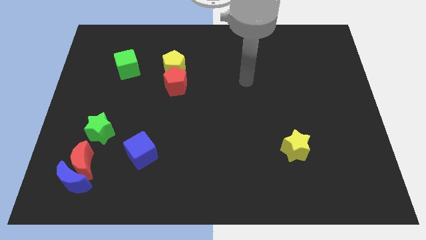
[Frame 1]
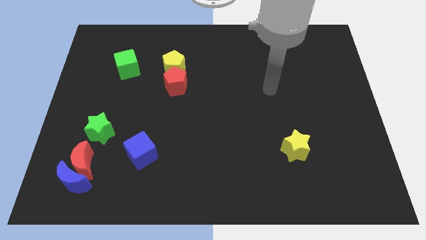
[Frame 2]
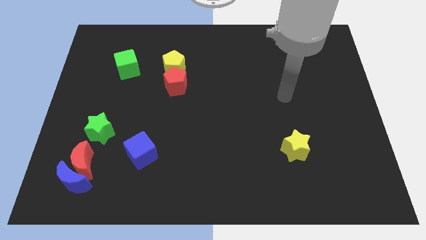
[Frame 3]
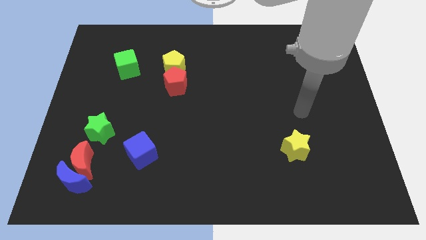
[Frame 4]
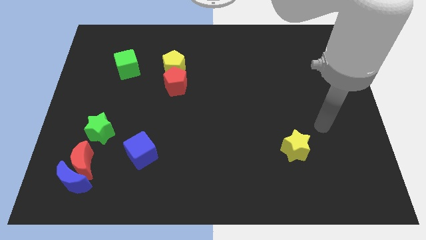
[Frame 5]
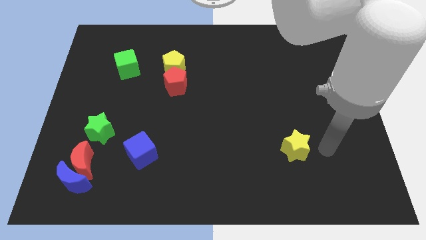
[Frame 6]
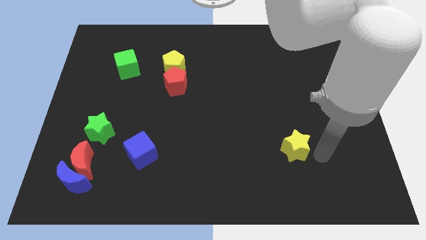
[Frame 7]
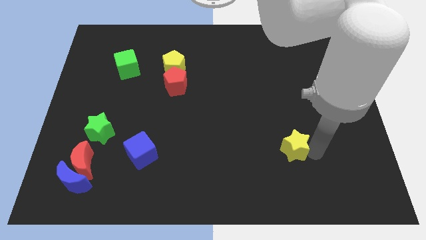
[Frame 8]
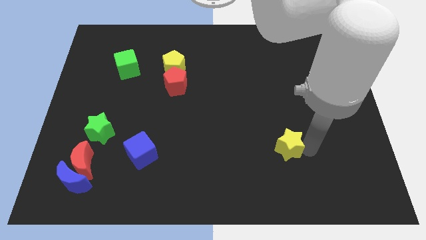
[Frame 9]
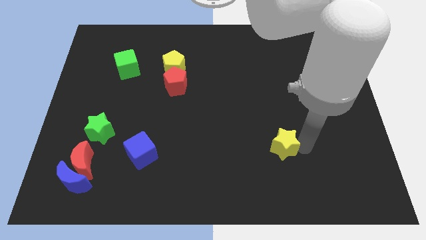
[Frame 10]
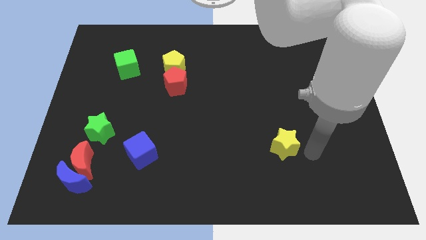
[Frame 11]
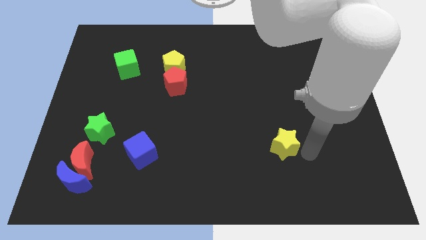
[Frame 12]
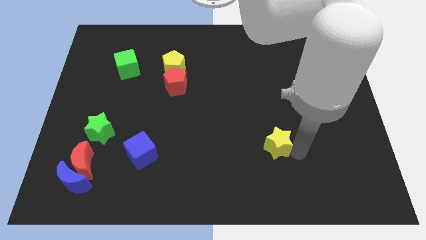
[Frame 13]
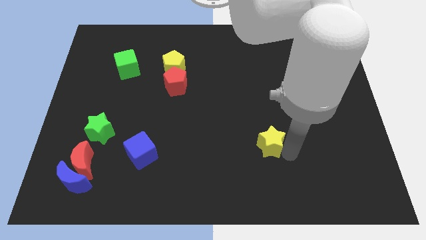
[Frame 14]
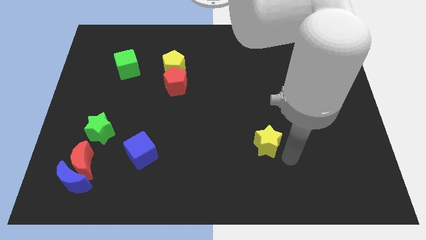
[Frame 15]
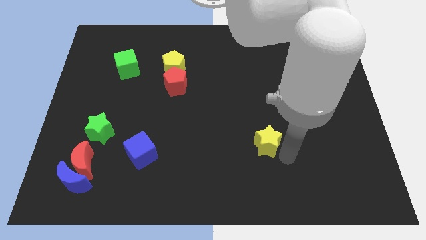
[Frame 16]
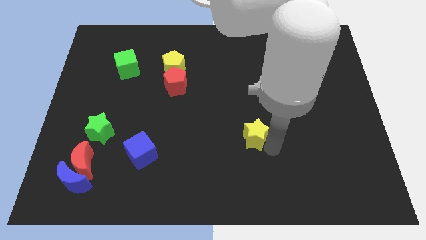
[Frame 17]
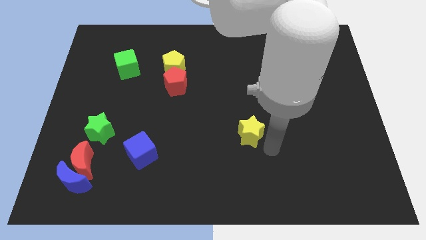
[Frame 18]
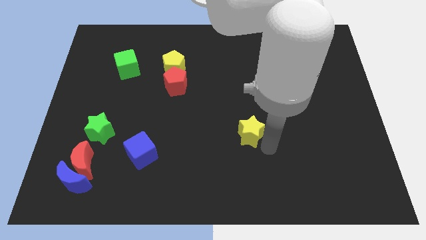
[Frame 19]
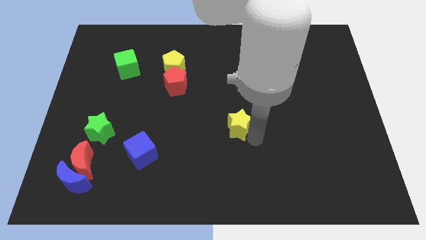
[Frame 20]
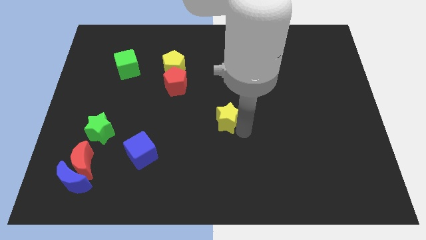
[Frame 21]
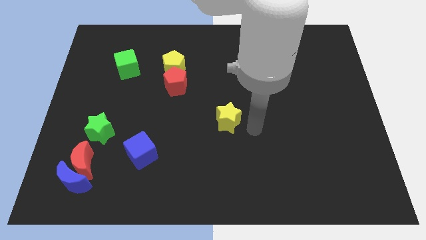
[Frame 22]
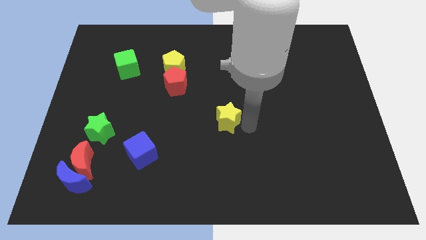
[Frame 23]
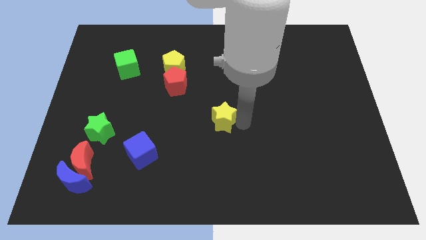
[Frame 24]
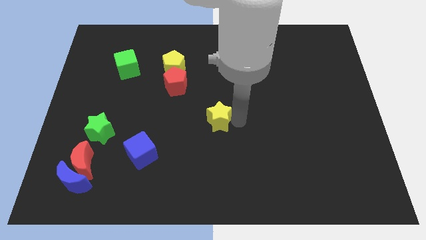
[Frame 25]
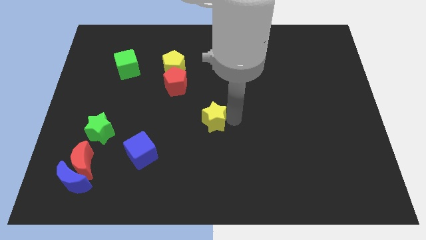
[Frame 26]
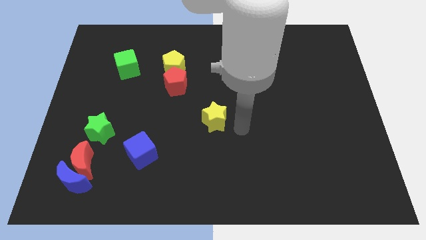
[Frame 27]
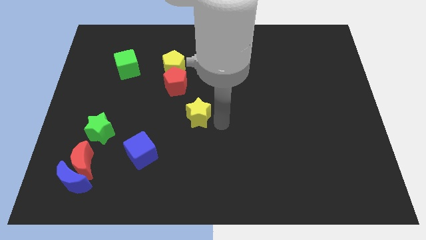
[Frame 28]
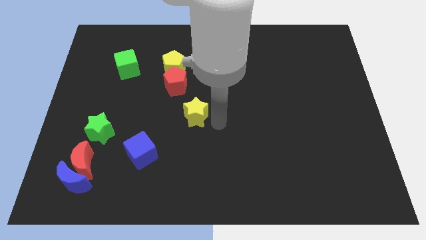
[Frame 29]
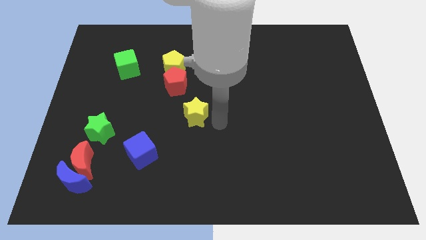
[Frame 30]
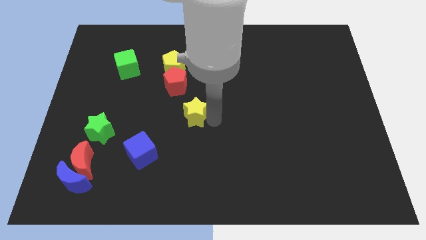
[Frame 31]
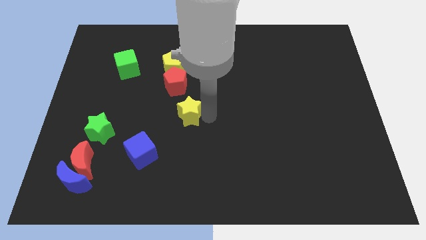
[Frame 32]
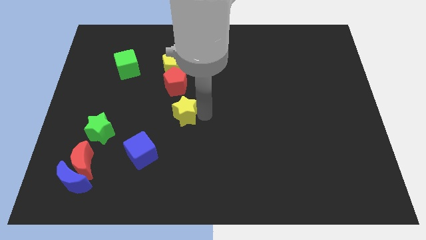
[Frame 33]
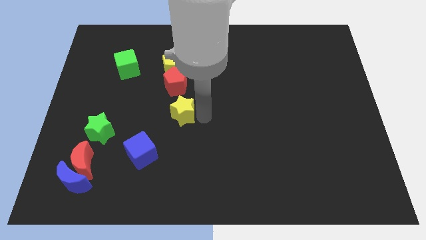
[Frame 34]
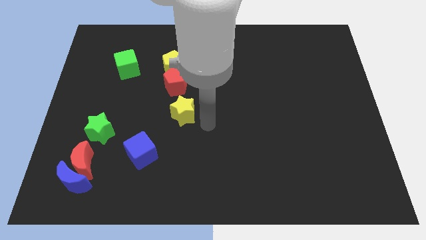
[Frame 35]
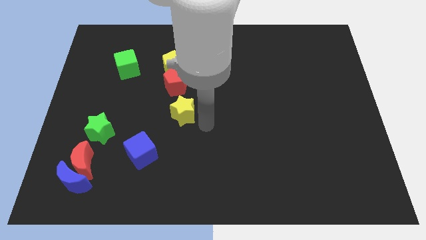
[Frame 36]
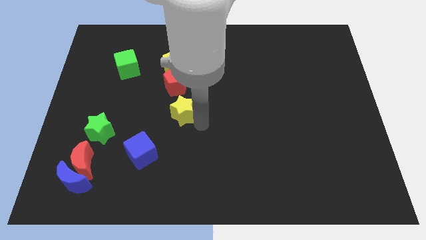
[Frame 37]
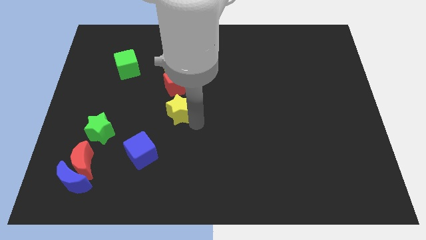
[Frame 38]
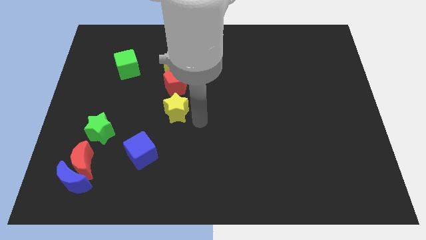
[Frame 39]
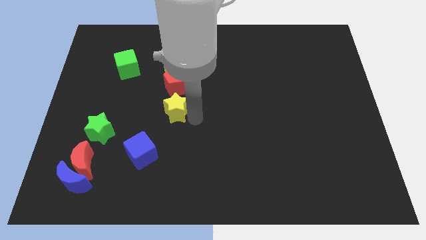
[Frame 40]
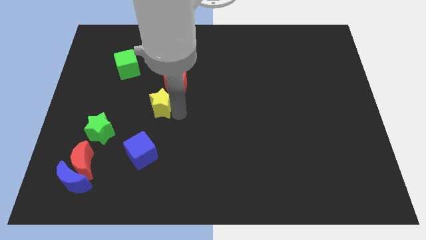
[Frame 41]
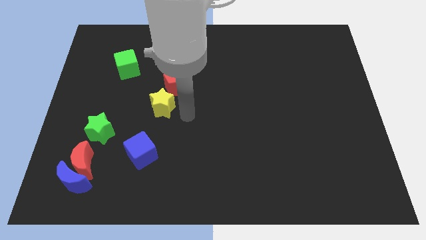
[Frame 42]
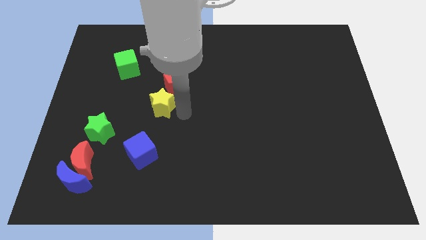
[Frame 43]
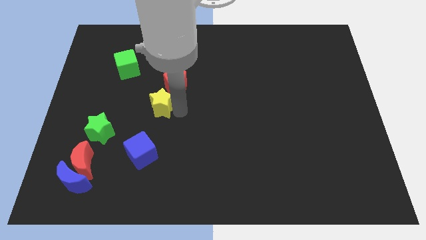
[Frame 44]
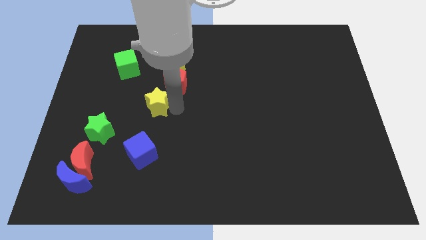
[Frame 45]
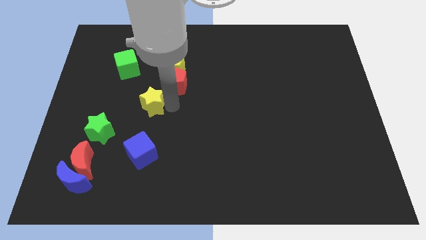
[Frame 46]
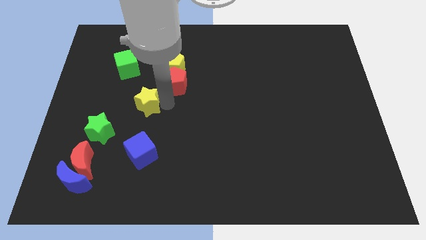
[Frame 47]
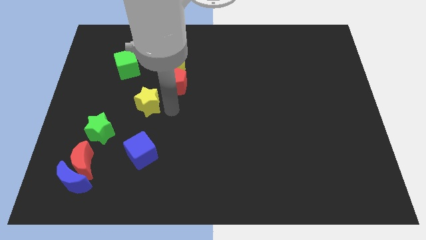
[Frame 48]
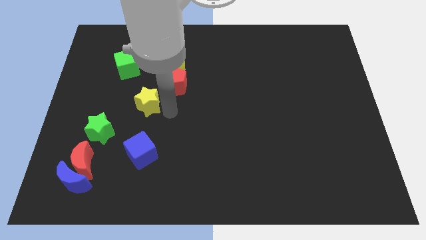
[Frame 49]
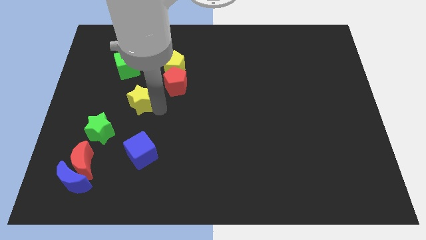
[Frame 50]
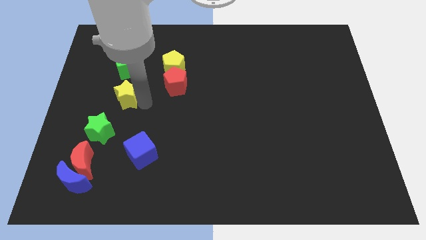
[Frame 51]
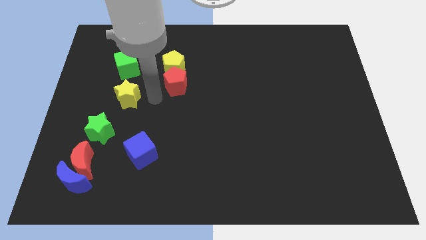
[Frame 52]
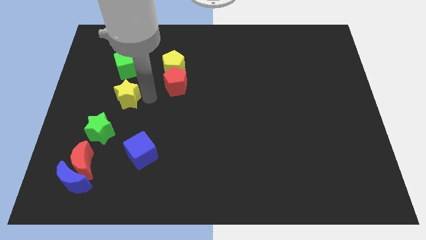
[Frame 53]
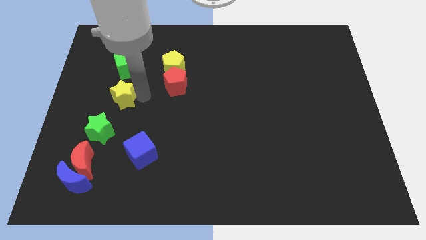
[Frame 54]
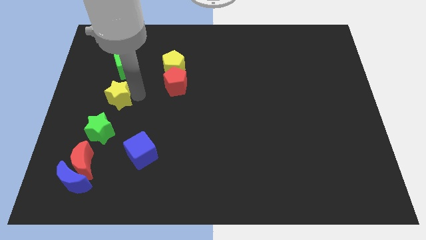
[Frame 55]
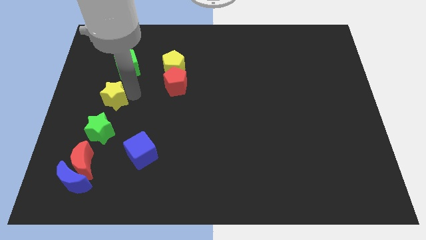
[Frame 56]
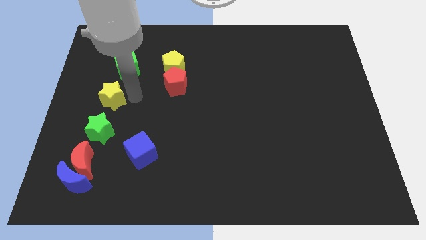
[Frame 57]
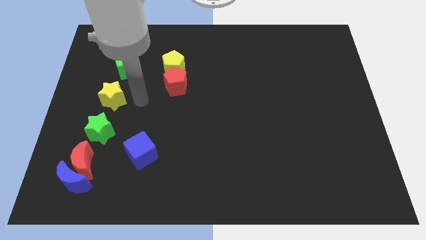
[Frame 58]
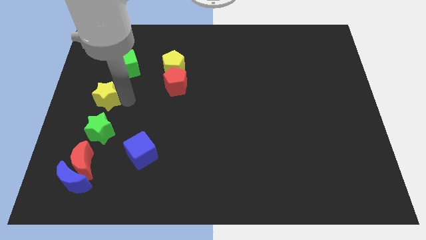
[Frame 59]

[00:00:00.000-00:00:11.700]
slide the yellow star to the left side

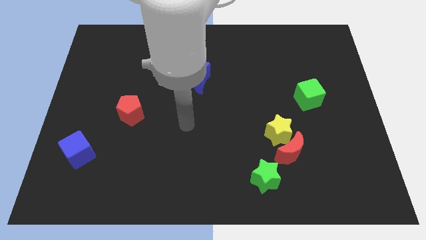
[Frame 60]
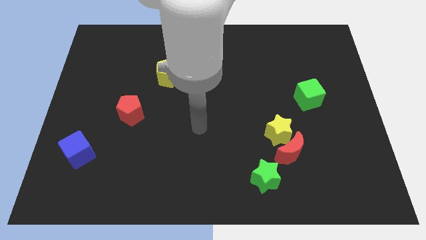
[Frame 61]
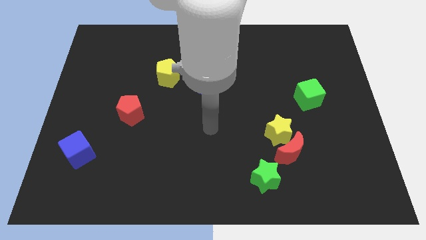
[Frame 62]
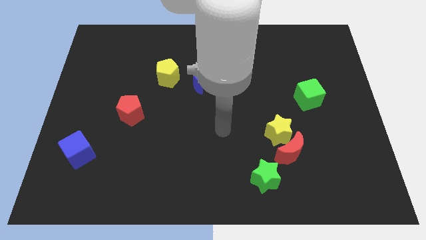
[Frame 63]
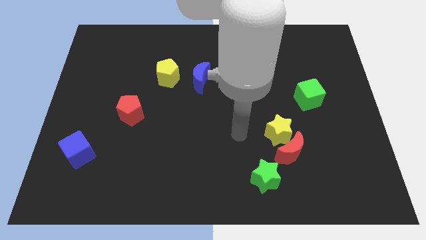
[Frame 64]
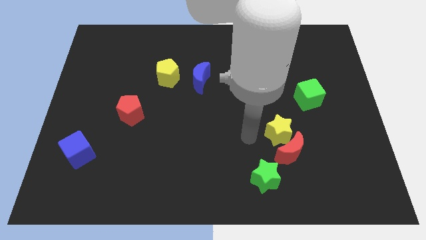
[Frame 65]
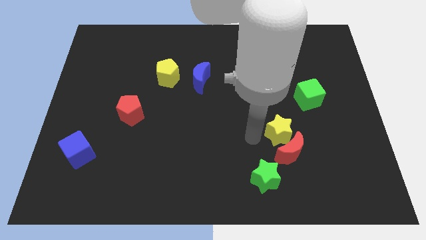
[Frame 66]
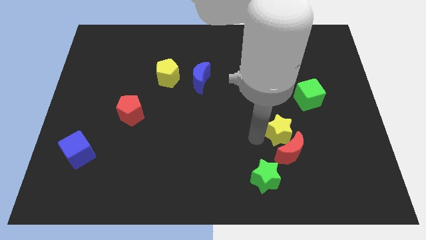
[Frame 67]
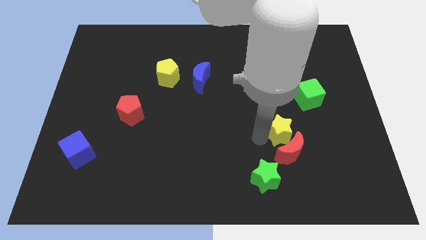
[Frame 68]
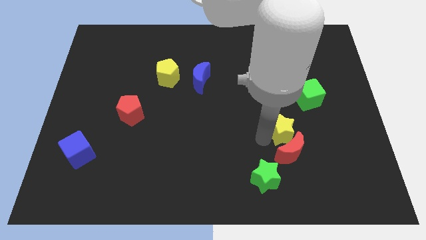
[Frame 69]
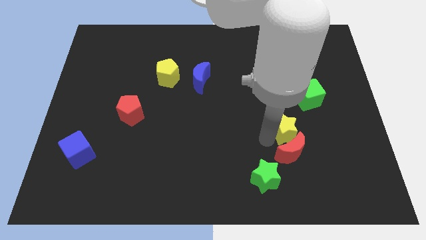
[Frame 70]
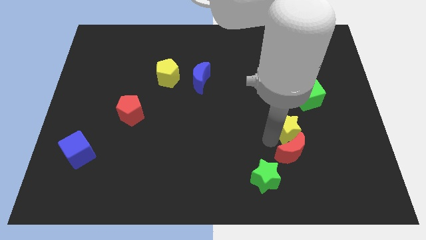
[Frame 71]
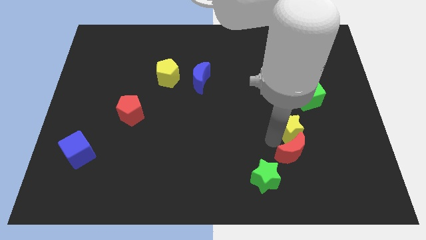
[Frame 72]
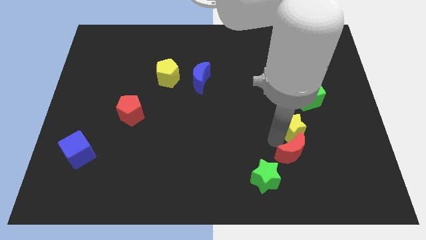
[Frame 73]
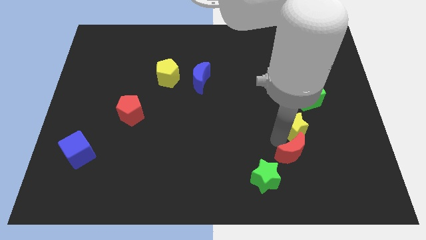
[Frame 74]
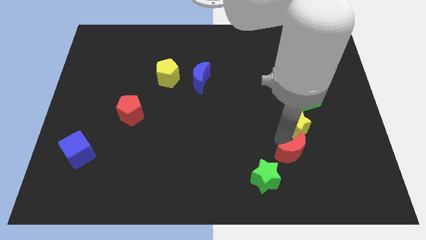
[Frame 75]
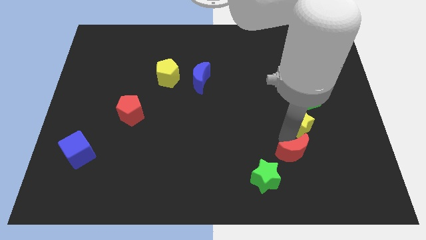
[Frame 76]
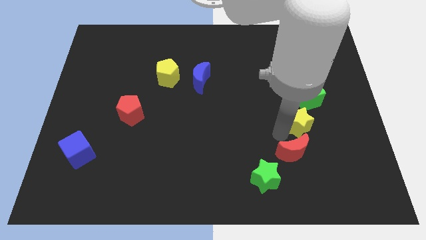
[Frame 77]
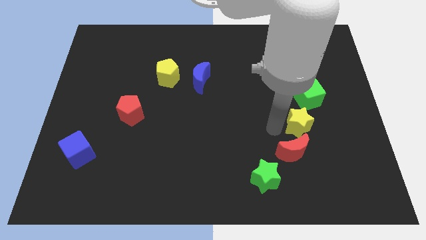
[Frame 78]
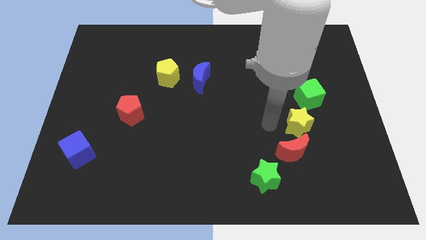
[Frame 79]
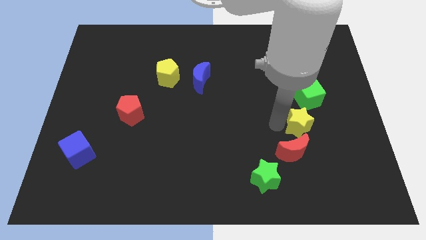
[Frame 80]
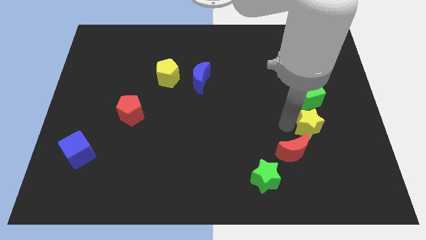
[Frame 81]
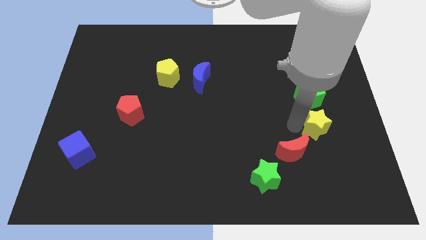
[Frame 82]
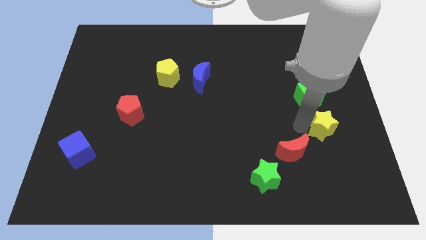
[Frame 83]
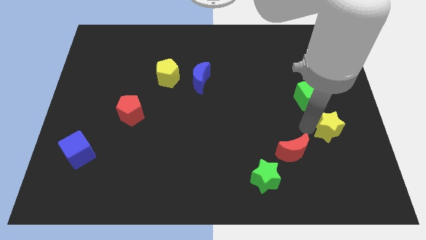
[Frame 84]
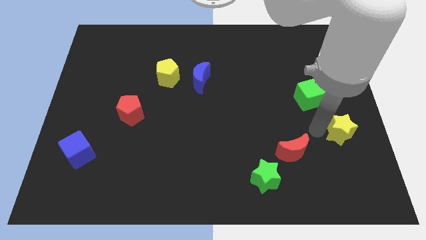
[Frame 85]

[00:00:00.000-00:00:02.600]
move the yellow star to the right side
